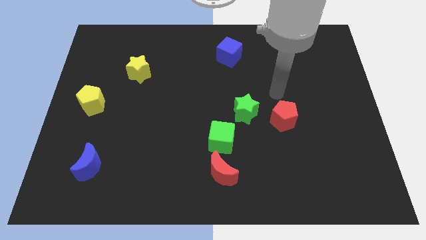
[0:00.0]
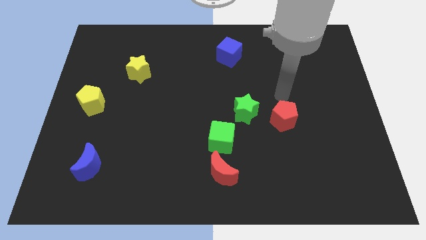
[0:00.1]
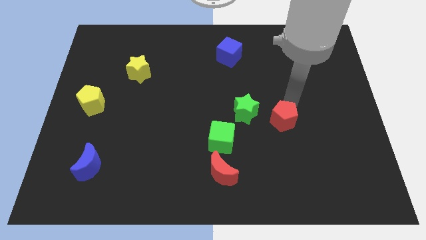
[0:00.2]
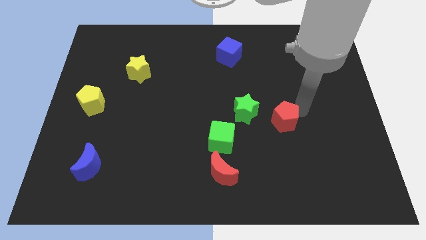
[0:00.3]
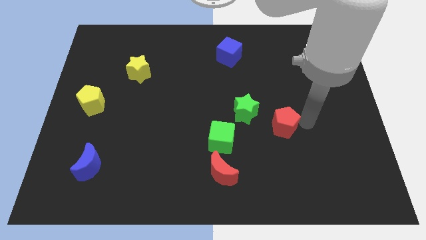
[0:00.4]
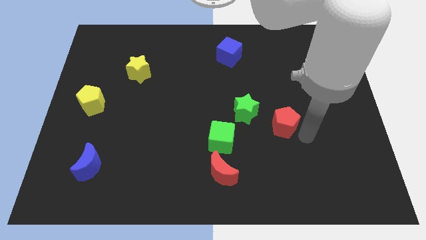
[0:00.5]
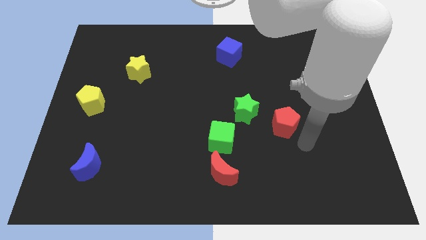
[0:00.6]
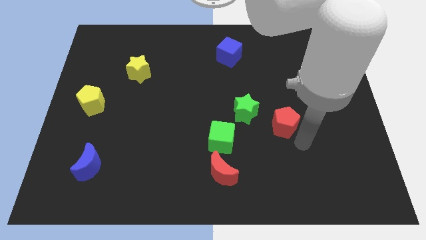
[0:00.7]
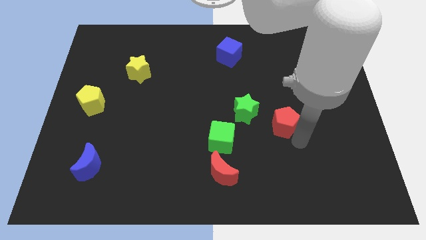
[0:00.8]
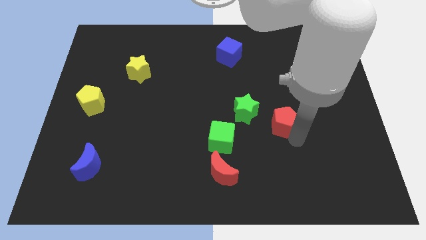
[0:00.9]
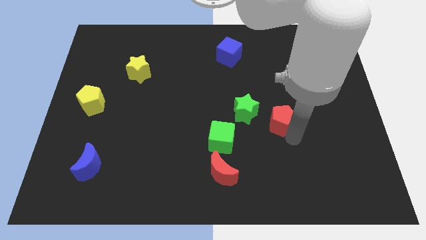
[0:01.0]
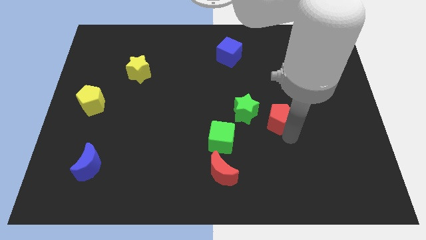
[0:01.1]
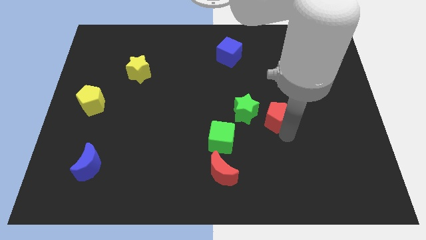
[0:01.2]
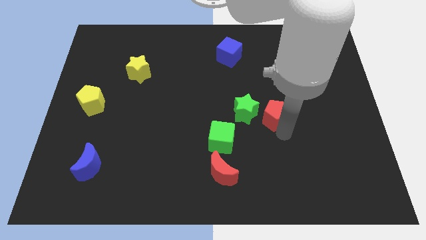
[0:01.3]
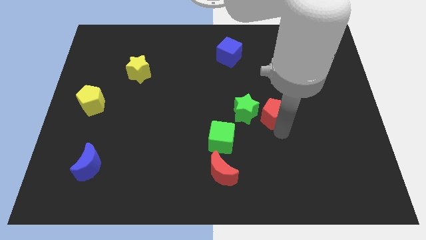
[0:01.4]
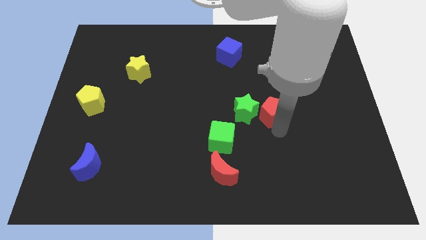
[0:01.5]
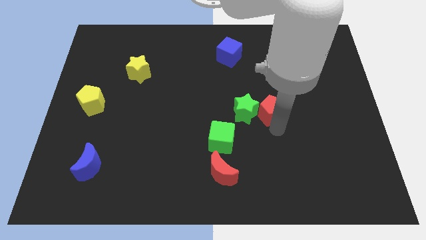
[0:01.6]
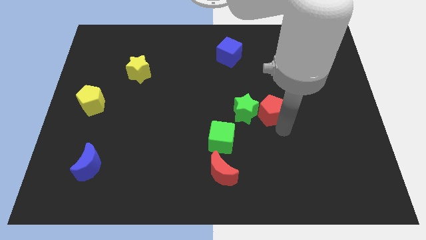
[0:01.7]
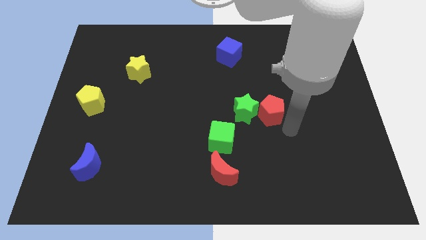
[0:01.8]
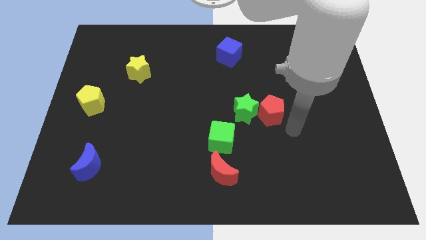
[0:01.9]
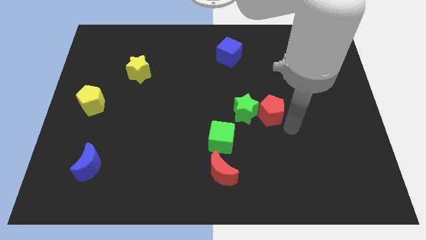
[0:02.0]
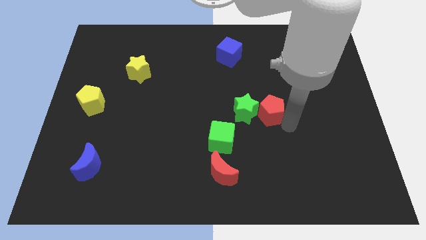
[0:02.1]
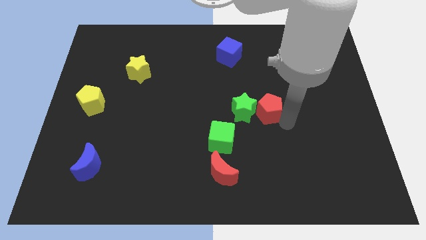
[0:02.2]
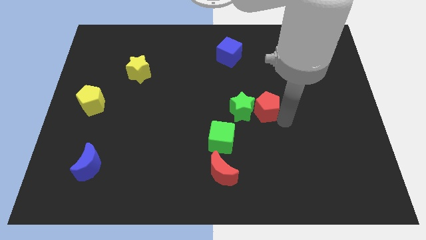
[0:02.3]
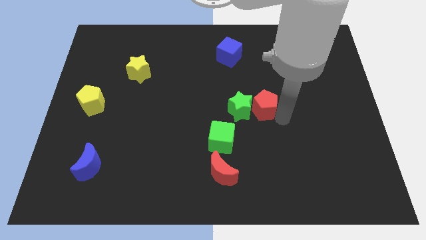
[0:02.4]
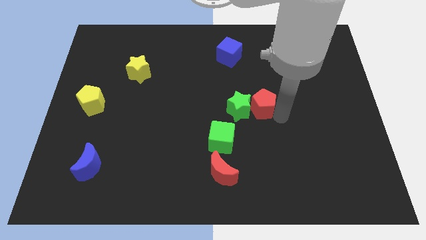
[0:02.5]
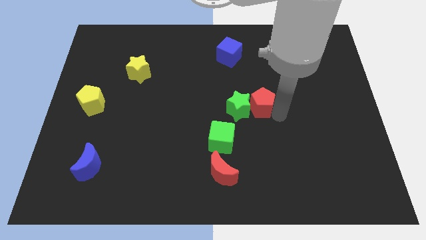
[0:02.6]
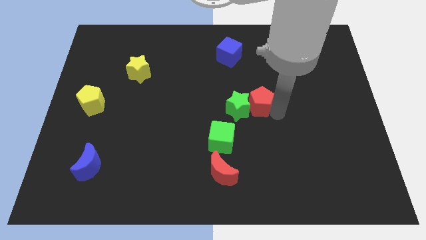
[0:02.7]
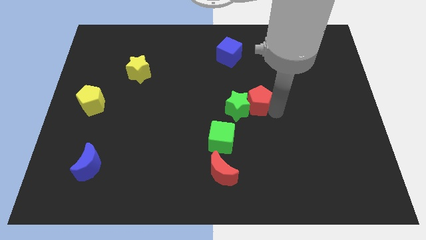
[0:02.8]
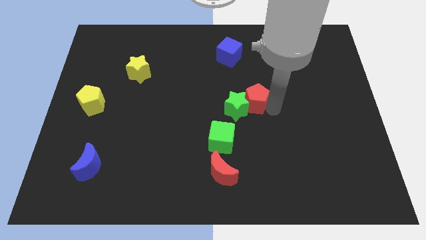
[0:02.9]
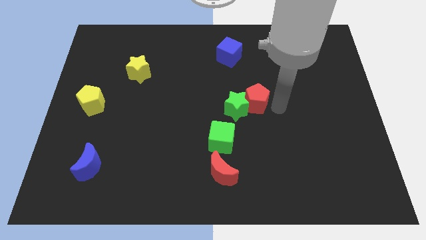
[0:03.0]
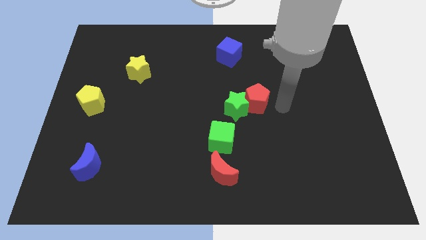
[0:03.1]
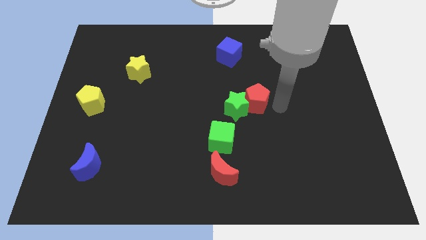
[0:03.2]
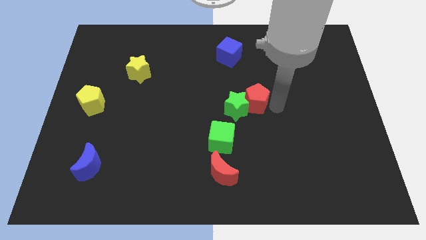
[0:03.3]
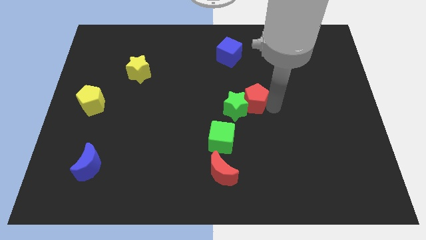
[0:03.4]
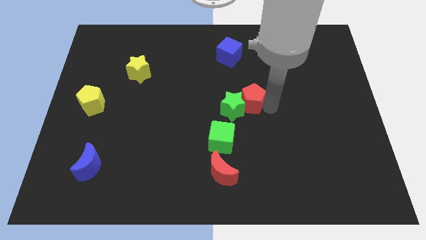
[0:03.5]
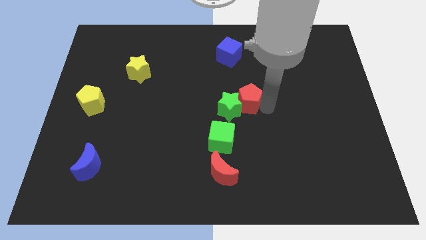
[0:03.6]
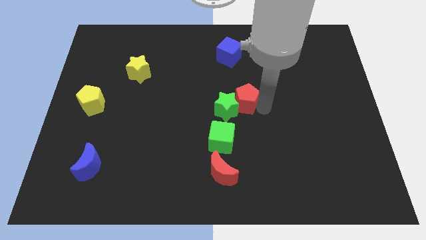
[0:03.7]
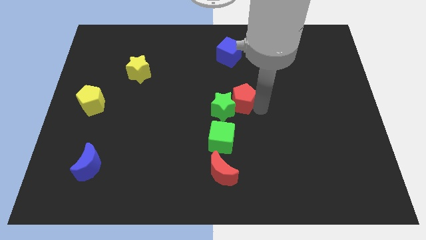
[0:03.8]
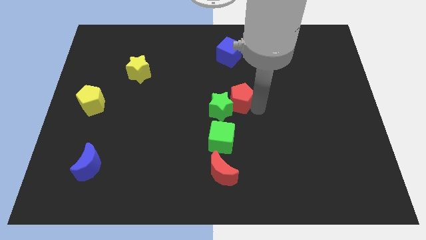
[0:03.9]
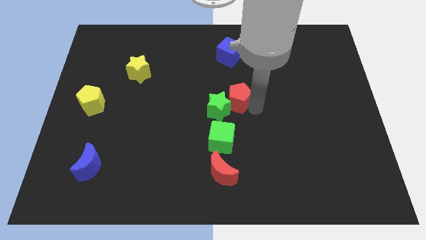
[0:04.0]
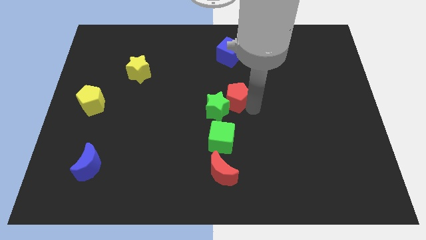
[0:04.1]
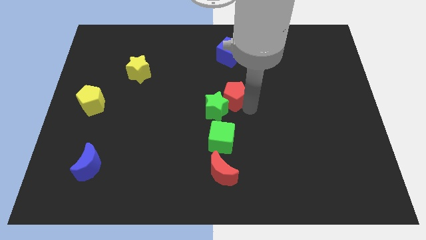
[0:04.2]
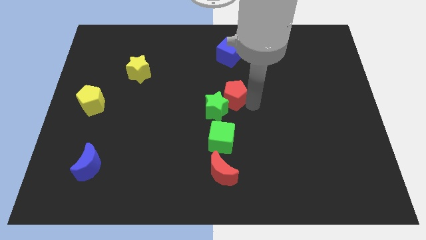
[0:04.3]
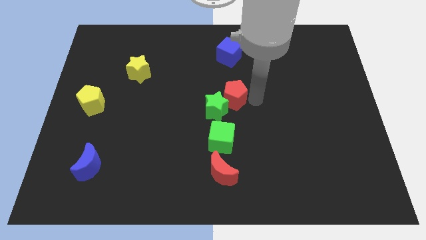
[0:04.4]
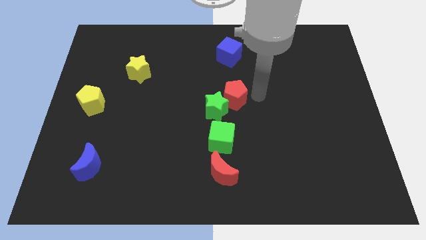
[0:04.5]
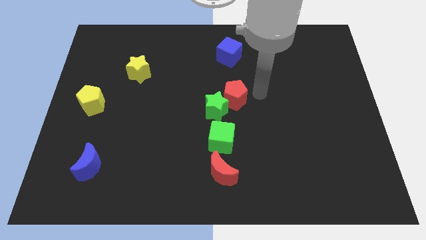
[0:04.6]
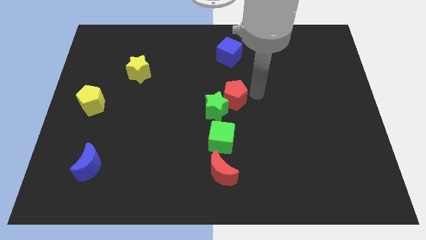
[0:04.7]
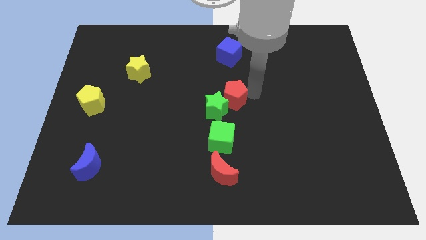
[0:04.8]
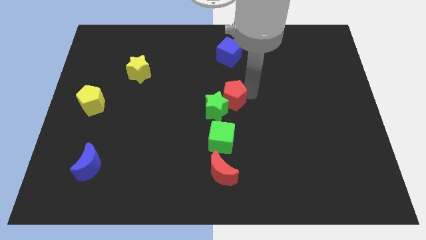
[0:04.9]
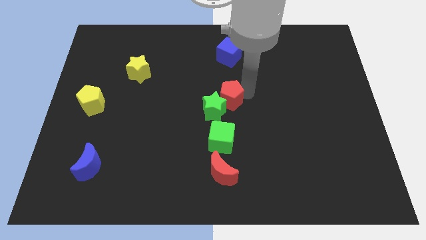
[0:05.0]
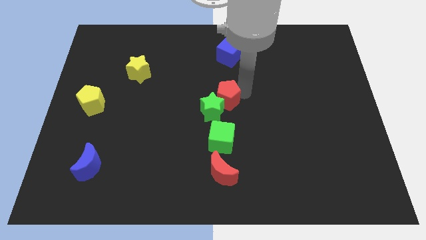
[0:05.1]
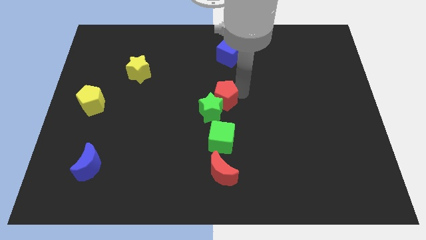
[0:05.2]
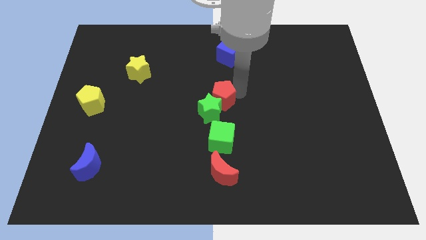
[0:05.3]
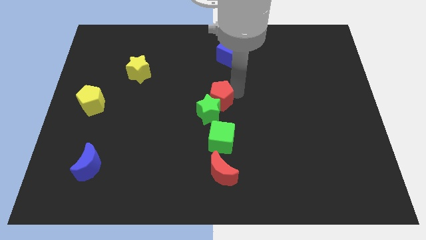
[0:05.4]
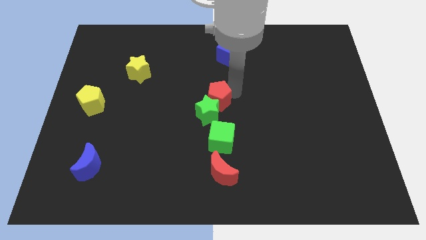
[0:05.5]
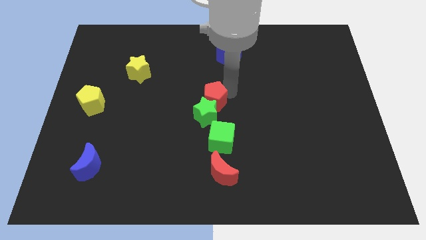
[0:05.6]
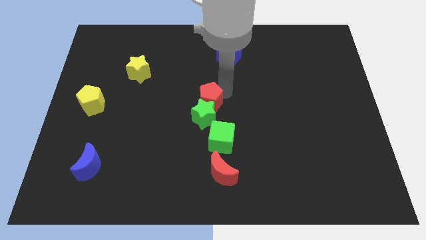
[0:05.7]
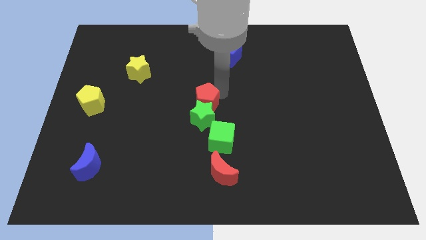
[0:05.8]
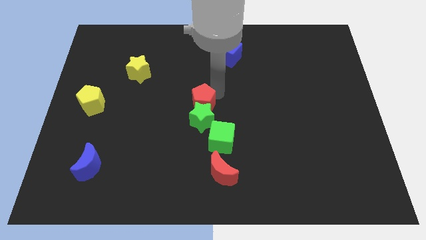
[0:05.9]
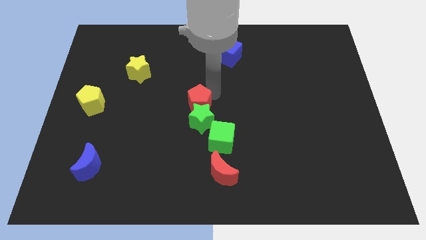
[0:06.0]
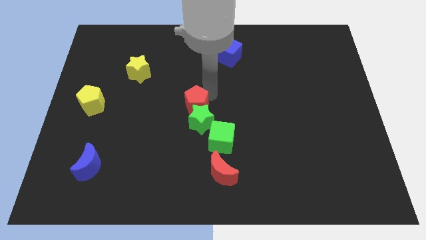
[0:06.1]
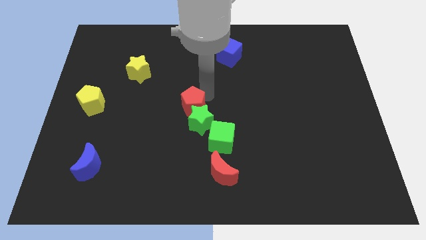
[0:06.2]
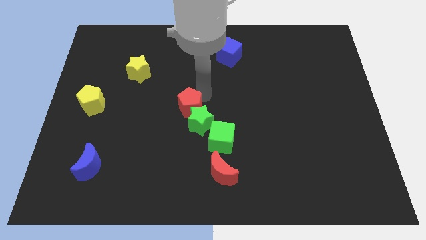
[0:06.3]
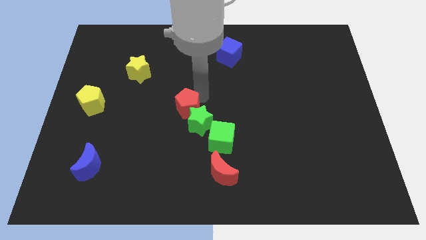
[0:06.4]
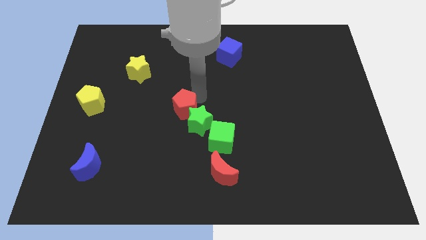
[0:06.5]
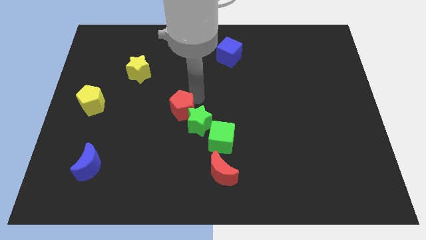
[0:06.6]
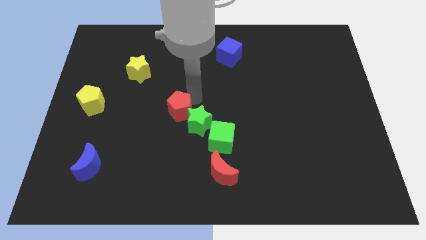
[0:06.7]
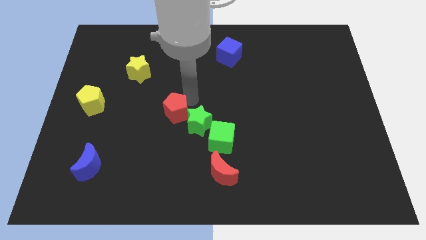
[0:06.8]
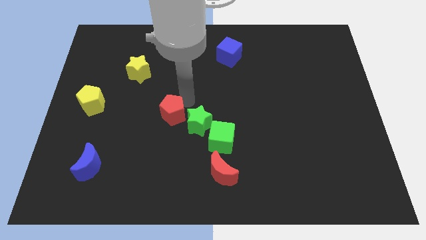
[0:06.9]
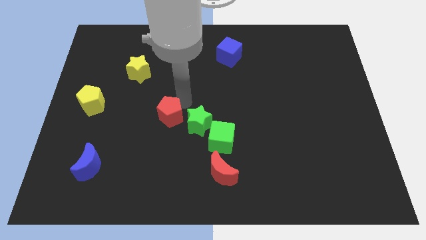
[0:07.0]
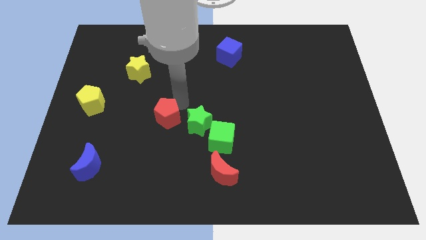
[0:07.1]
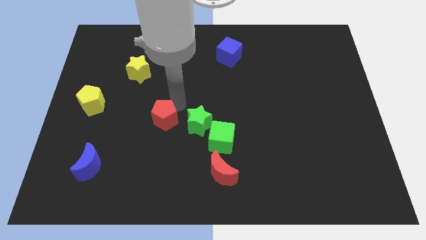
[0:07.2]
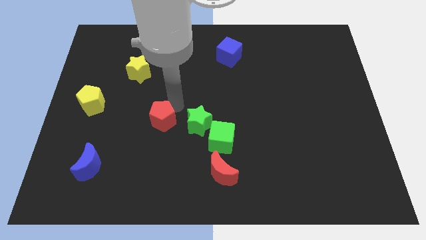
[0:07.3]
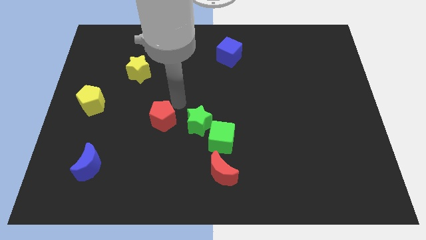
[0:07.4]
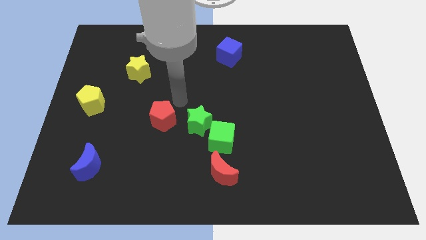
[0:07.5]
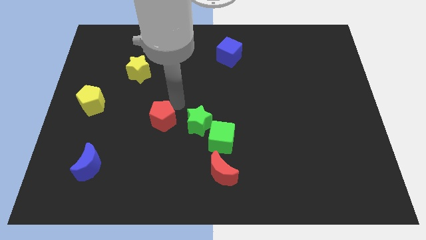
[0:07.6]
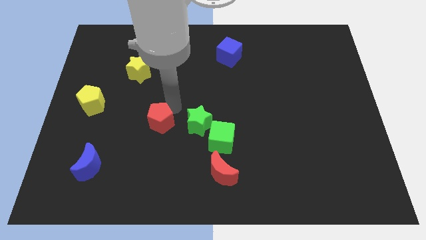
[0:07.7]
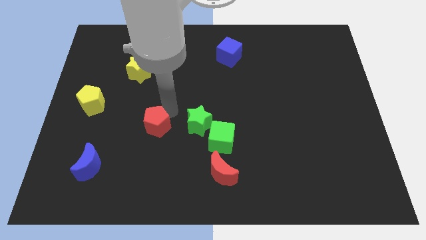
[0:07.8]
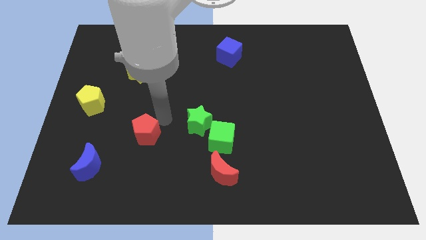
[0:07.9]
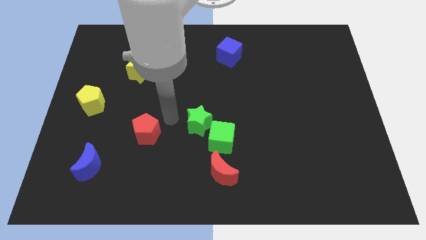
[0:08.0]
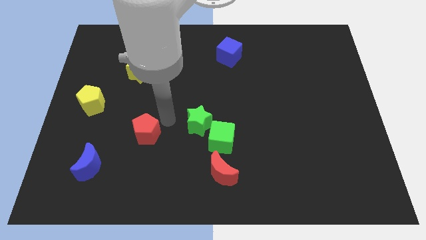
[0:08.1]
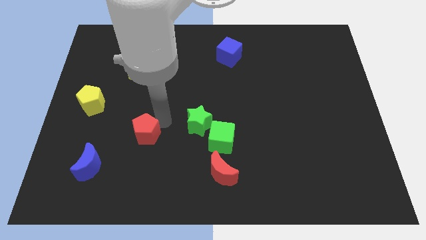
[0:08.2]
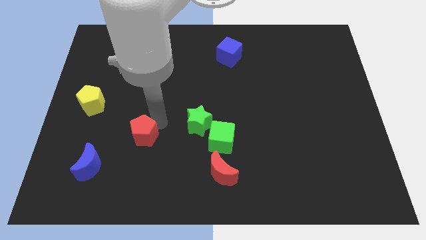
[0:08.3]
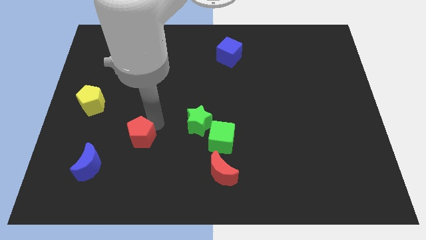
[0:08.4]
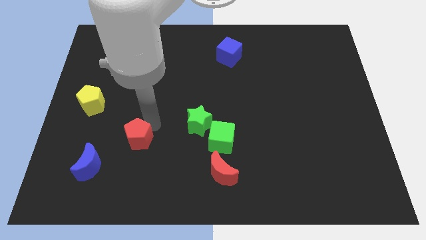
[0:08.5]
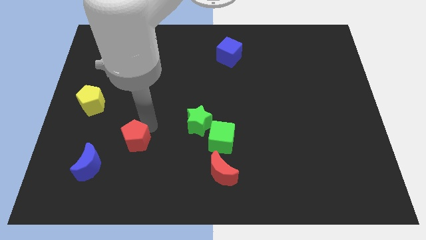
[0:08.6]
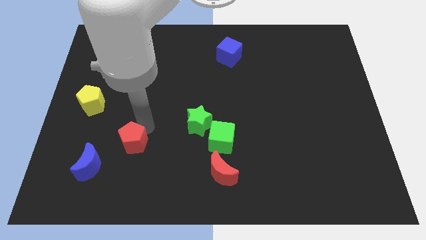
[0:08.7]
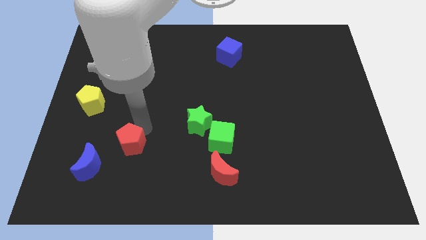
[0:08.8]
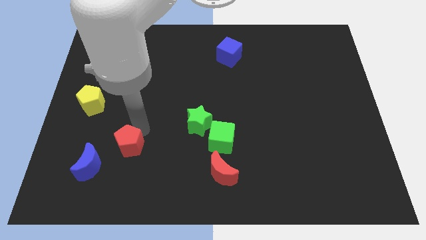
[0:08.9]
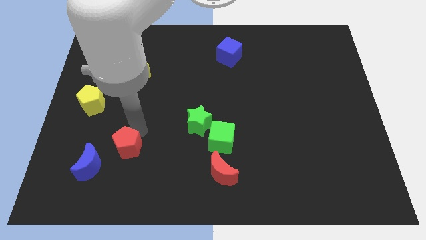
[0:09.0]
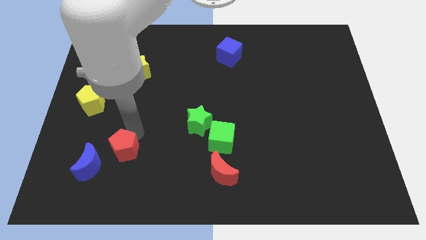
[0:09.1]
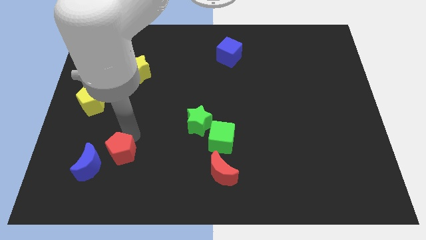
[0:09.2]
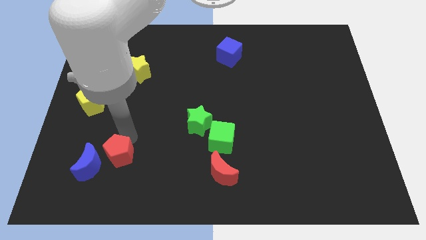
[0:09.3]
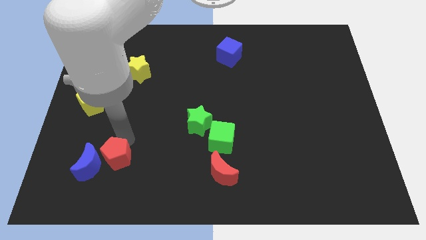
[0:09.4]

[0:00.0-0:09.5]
put the red pentagon towards the blue moon
